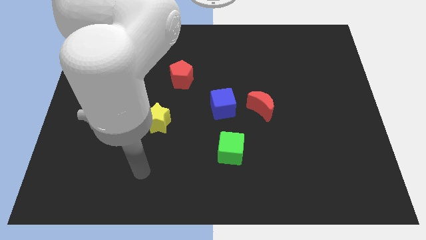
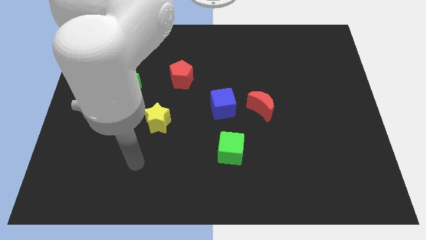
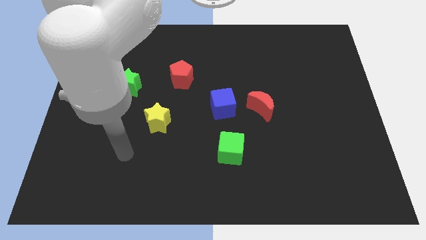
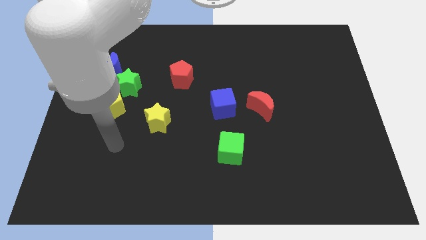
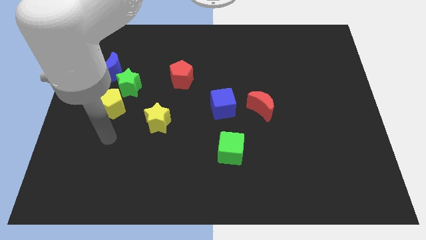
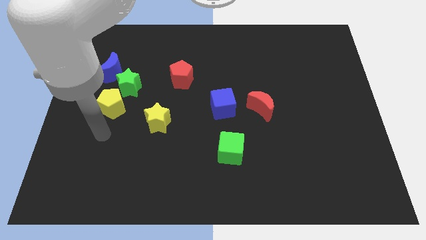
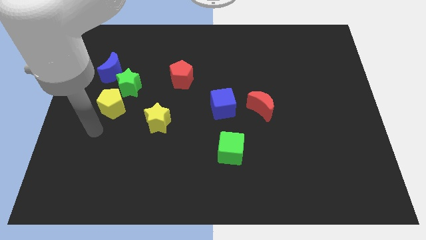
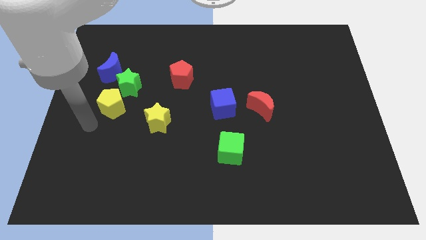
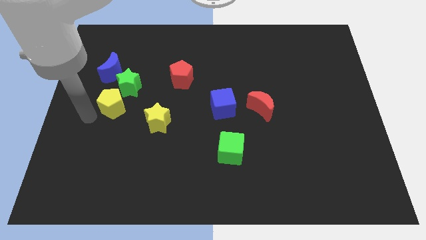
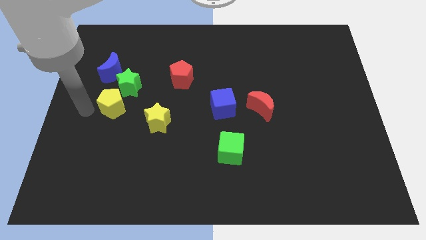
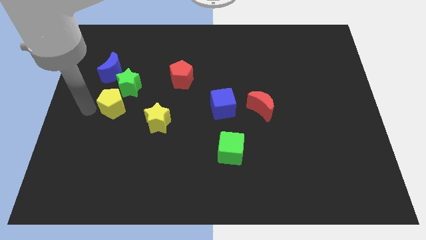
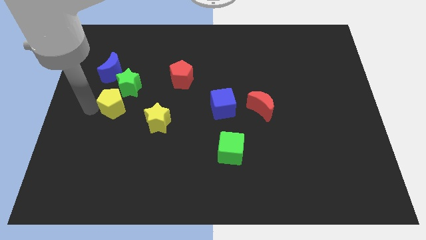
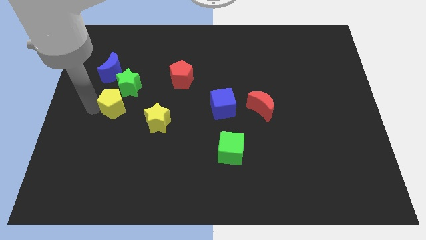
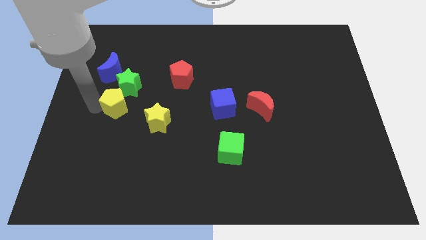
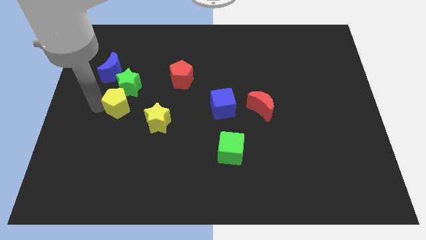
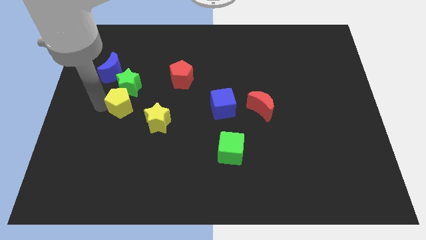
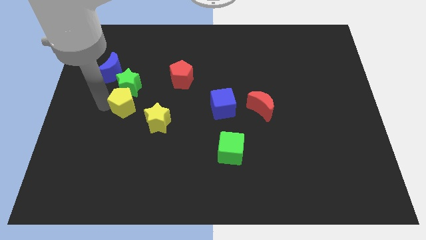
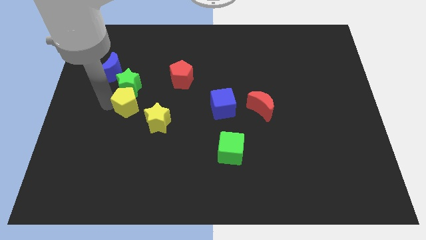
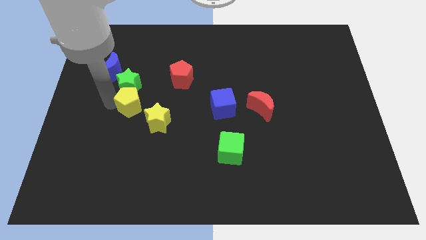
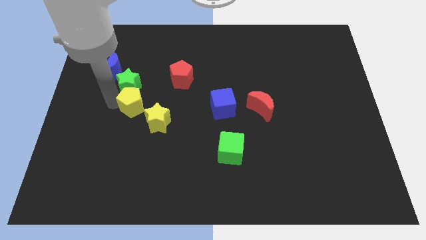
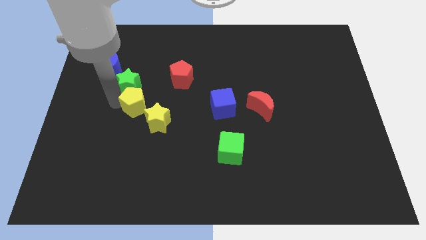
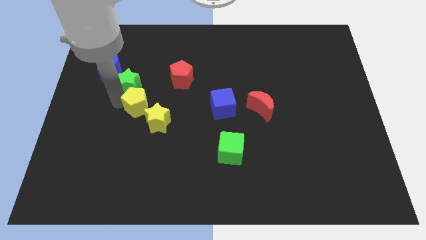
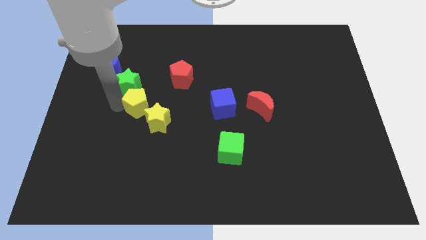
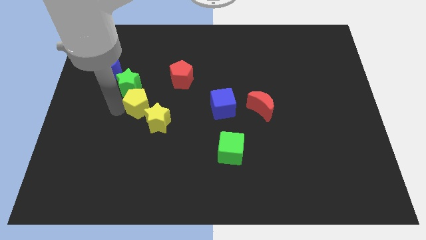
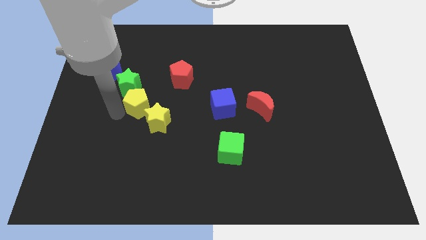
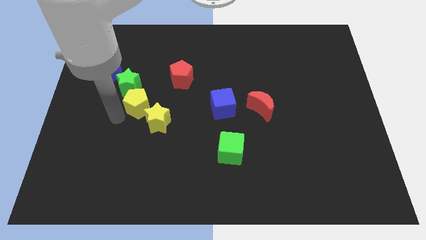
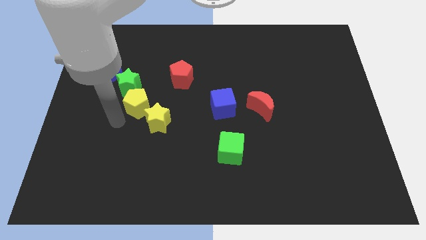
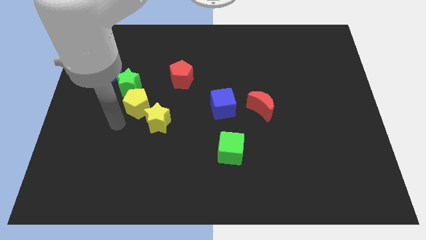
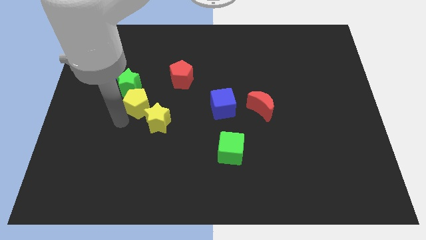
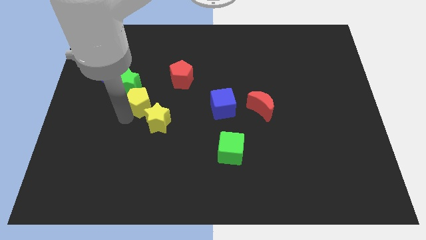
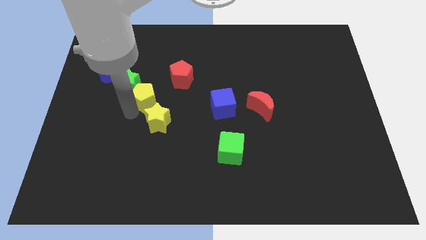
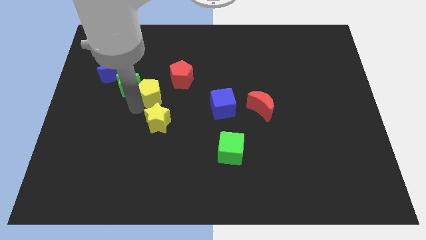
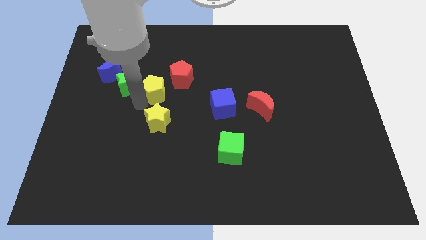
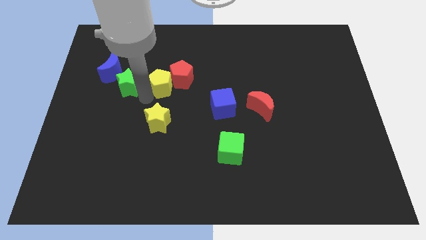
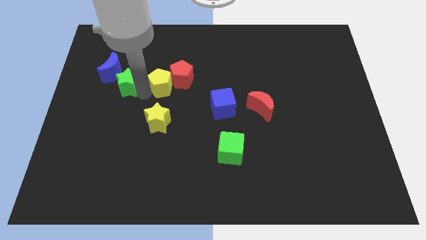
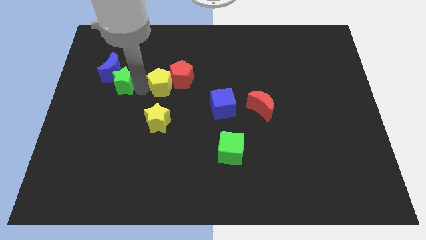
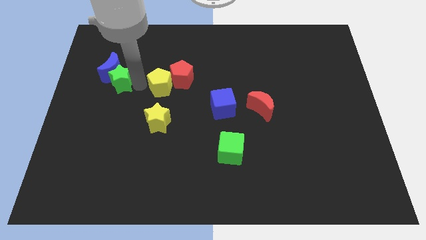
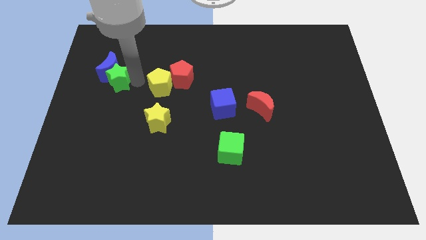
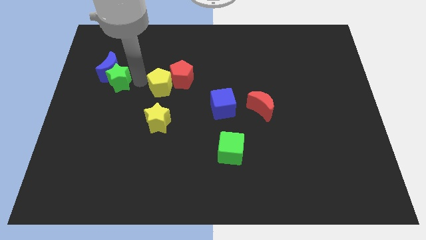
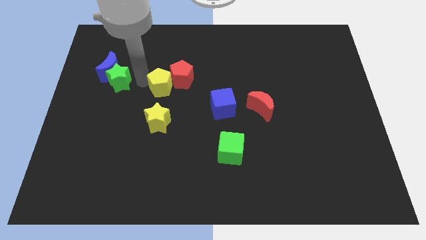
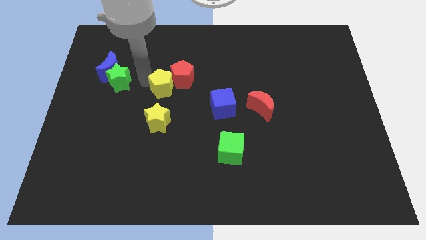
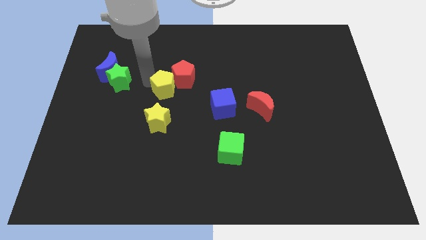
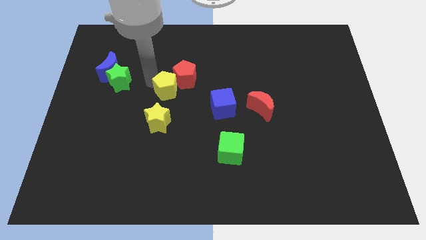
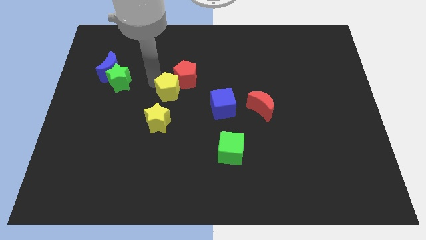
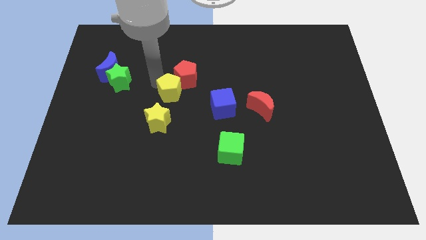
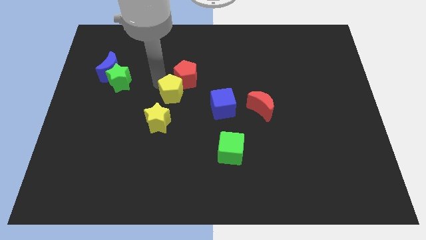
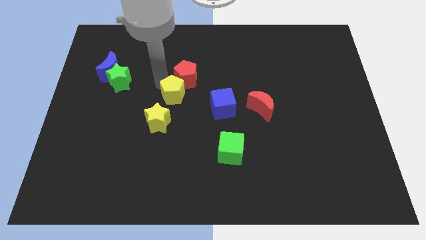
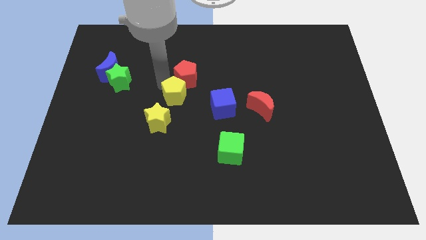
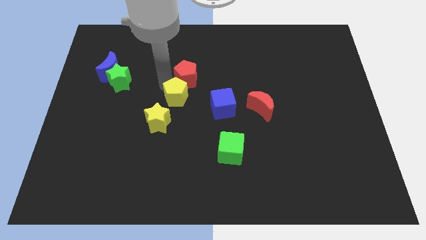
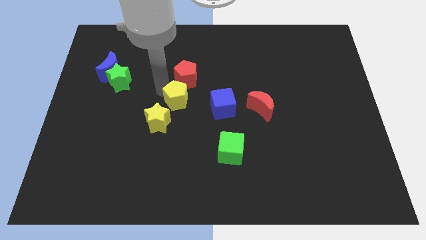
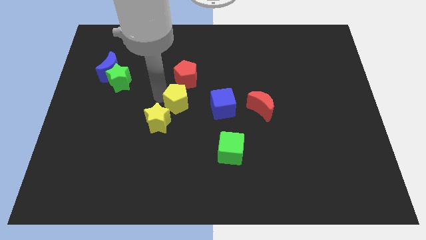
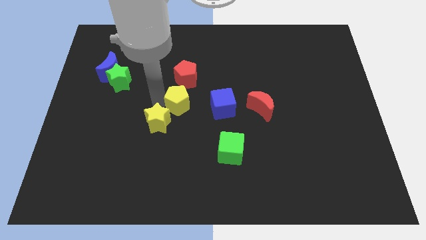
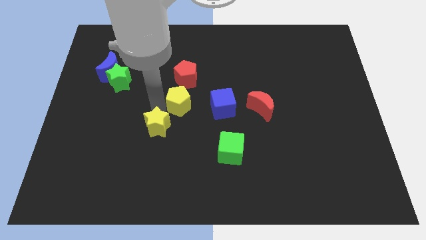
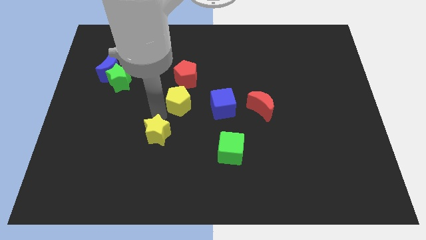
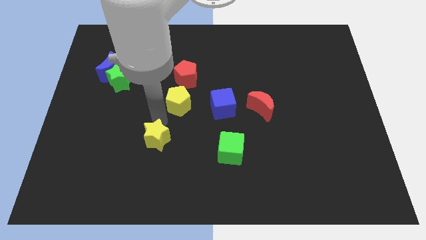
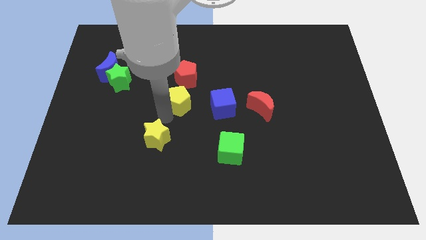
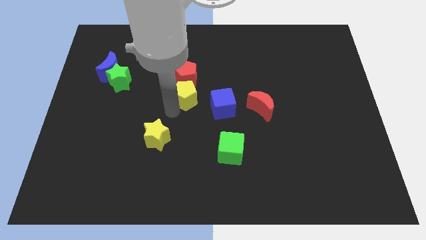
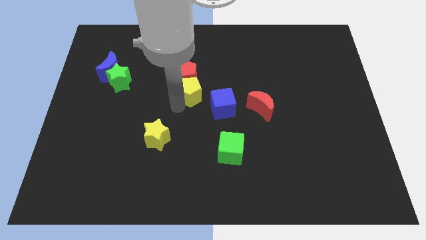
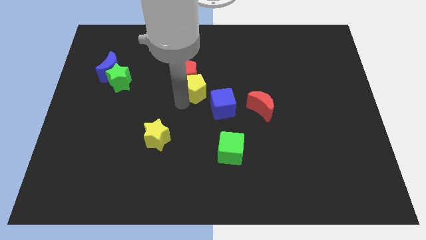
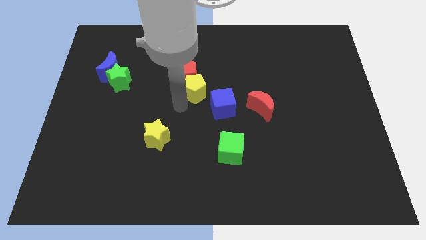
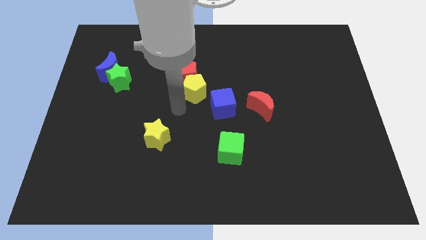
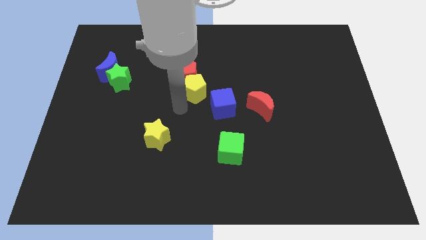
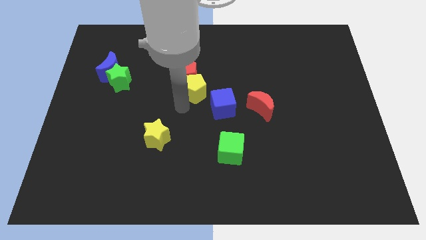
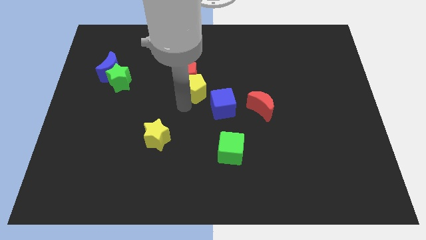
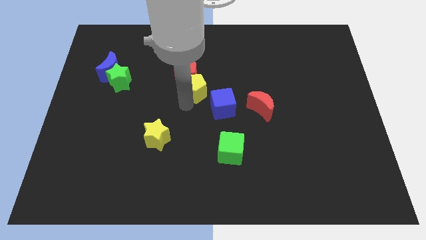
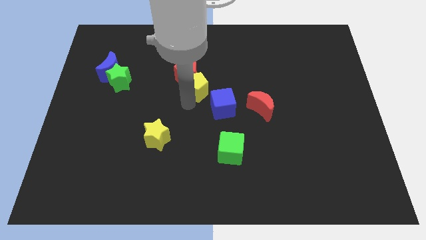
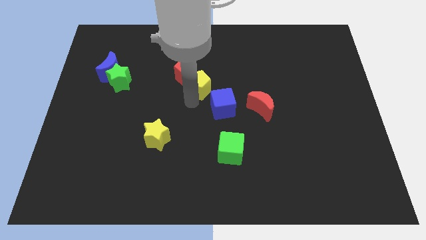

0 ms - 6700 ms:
push the yellow pentagon to the right of the red pentagon

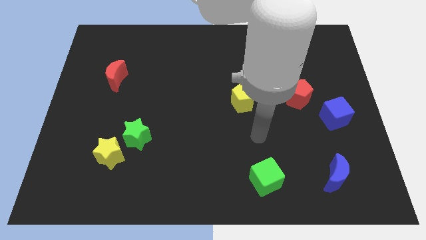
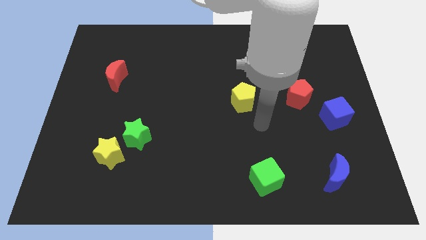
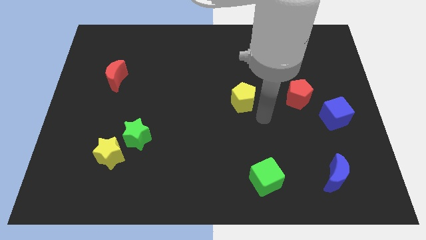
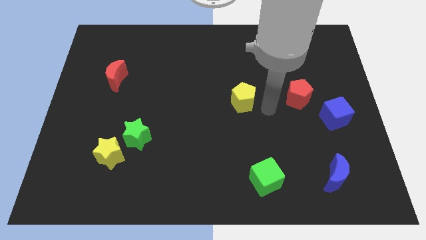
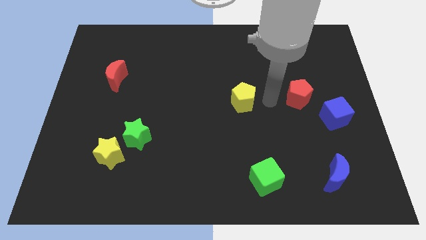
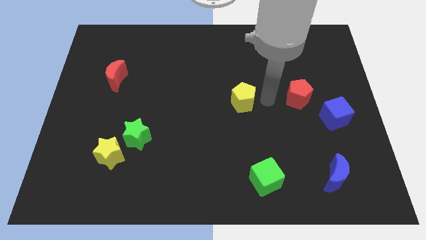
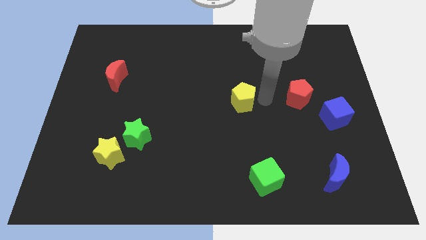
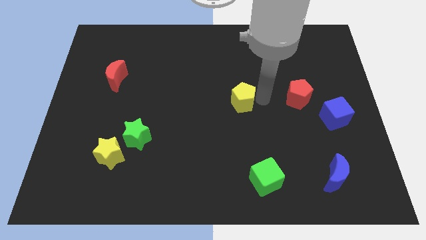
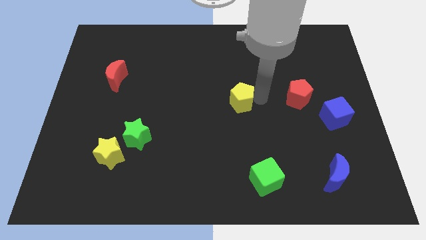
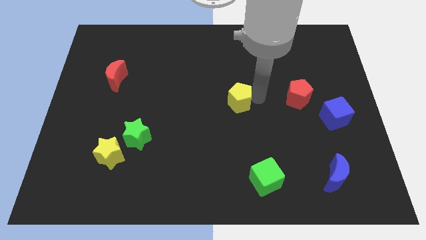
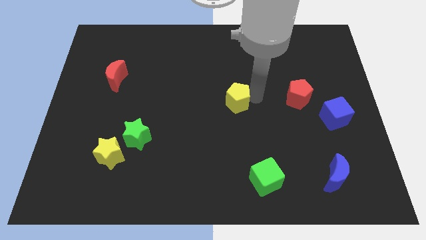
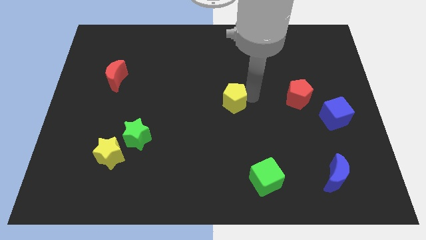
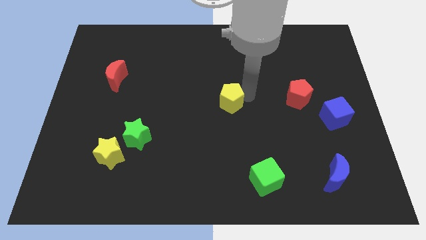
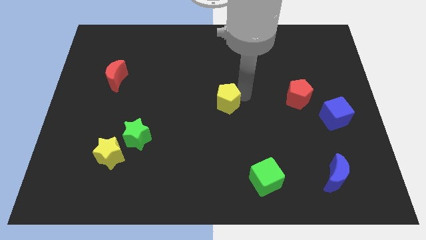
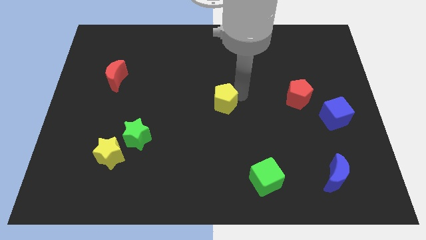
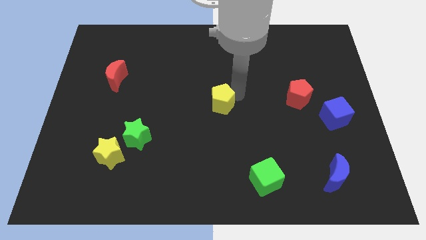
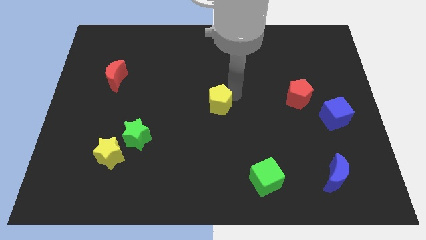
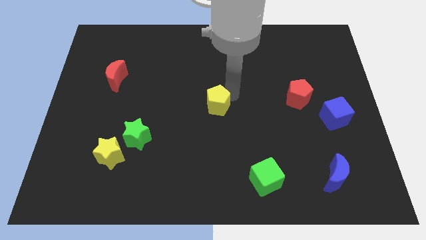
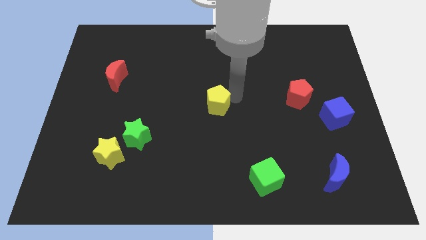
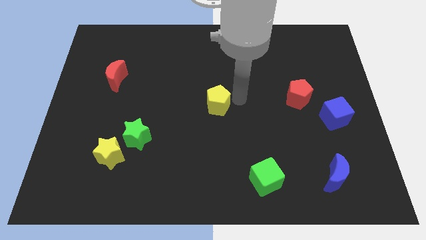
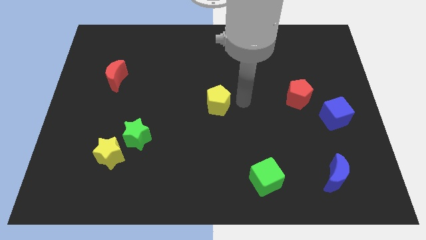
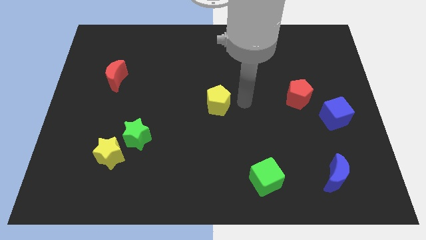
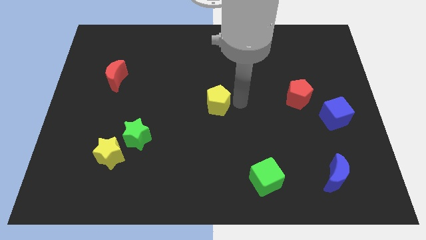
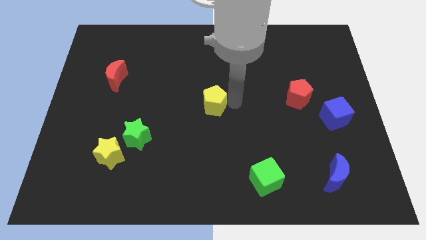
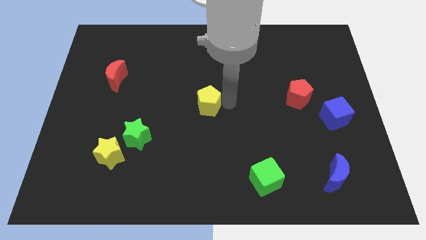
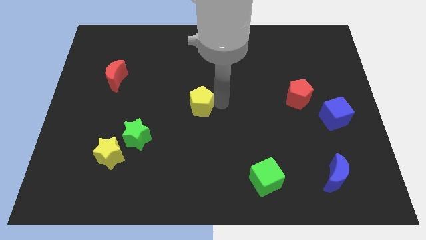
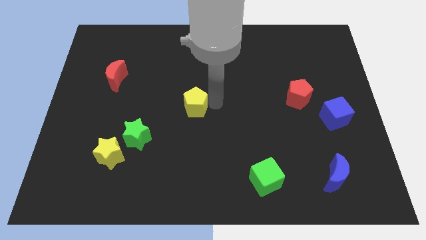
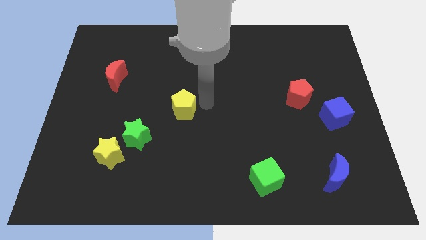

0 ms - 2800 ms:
move the yellow pentagon to the top right side of the green star
